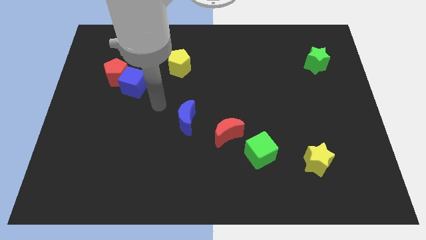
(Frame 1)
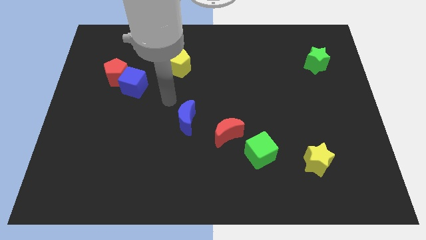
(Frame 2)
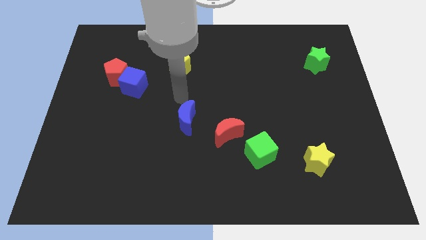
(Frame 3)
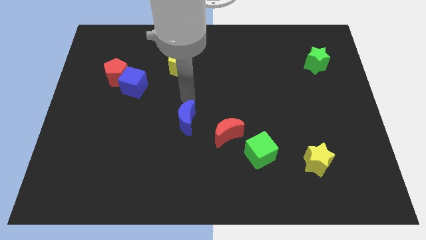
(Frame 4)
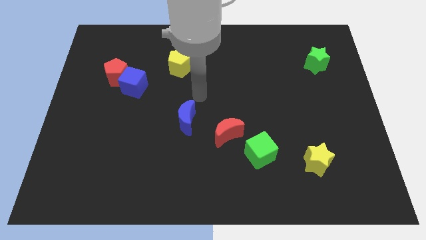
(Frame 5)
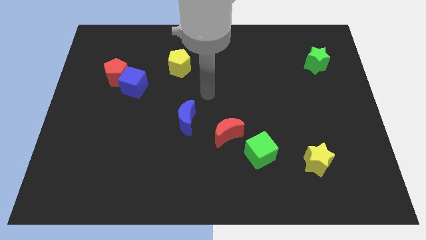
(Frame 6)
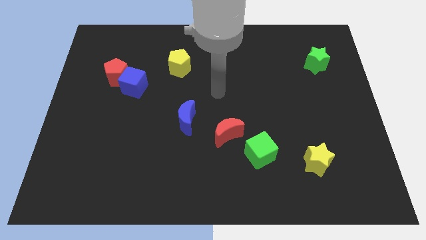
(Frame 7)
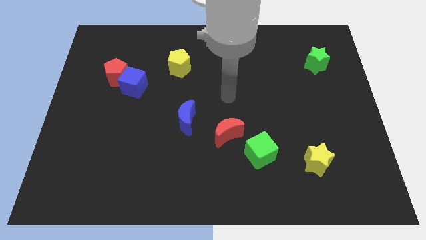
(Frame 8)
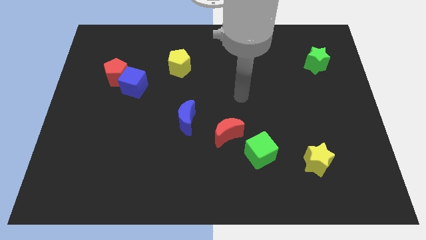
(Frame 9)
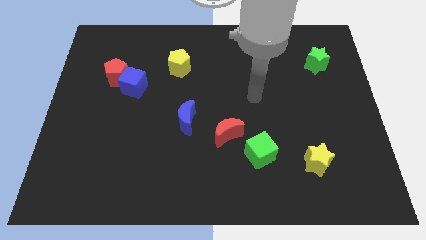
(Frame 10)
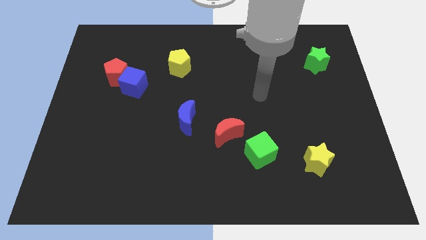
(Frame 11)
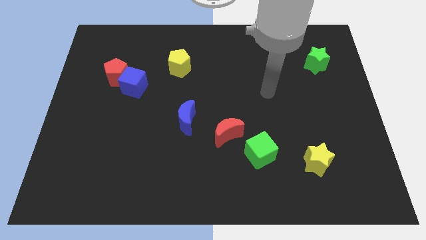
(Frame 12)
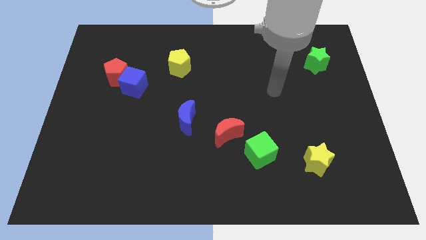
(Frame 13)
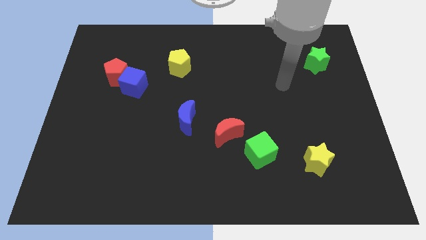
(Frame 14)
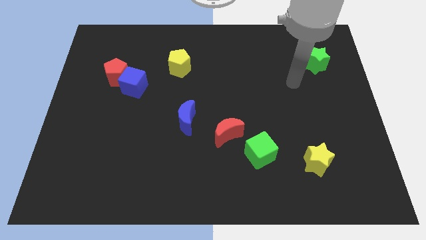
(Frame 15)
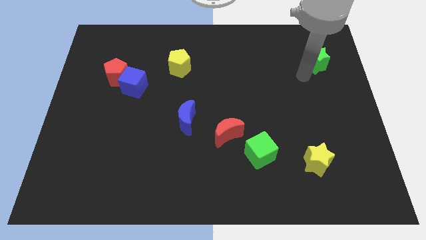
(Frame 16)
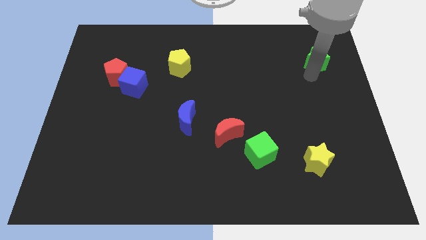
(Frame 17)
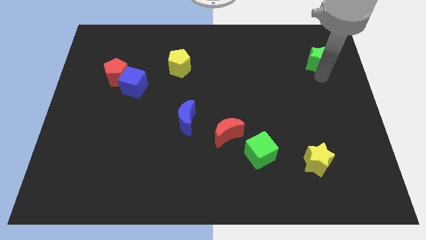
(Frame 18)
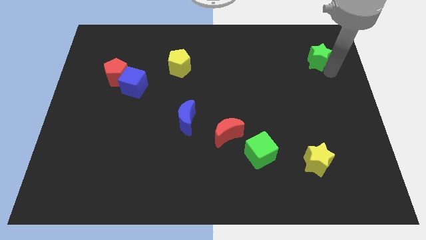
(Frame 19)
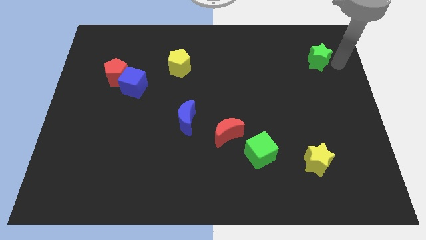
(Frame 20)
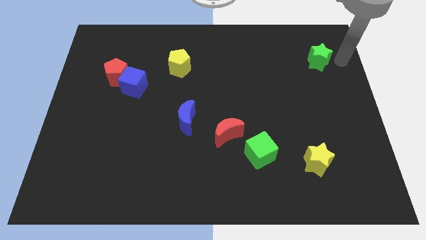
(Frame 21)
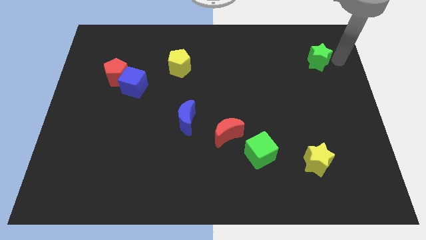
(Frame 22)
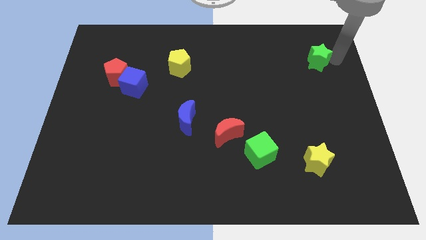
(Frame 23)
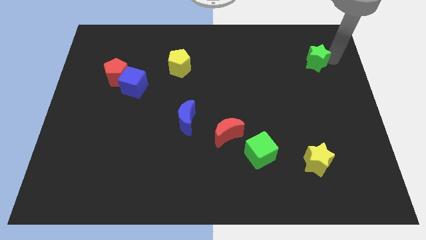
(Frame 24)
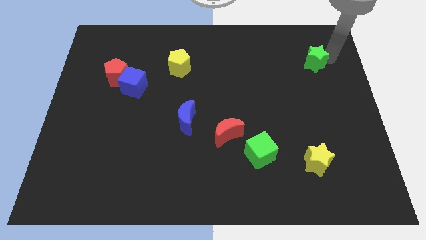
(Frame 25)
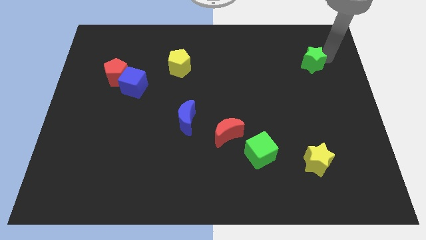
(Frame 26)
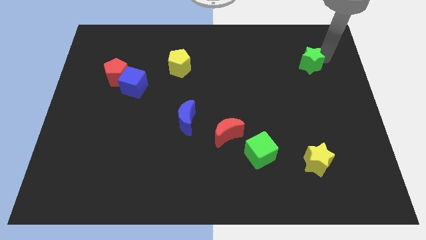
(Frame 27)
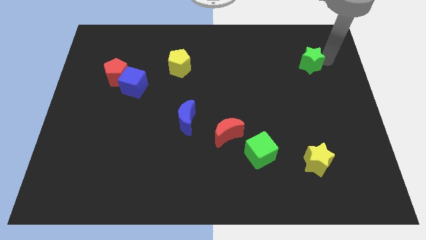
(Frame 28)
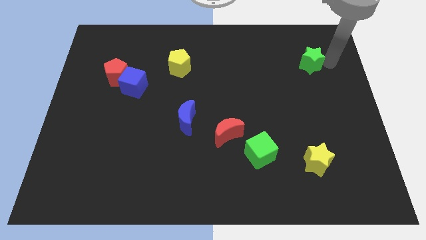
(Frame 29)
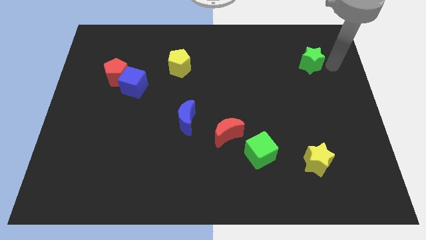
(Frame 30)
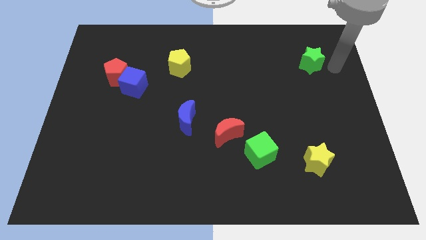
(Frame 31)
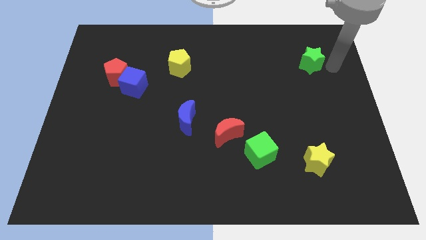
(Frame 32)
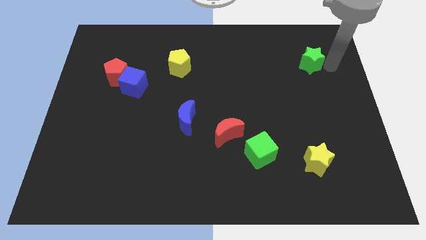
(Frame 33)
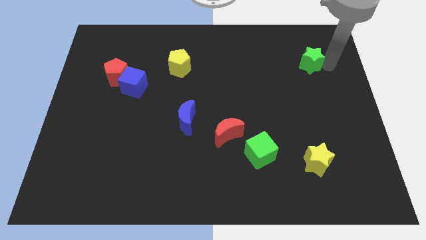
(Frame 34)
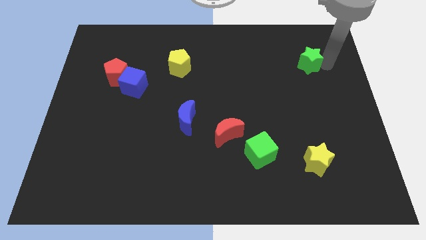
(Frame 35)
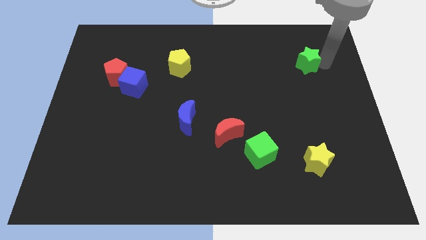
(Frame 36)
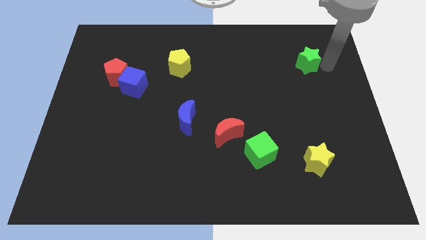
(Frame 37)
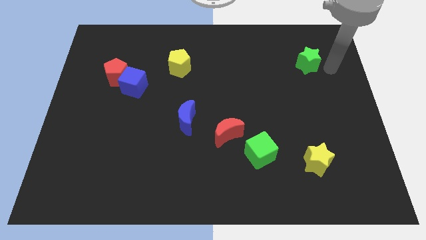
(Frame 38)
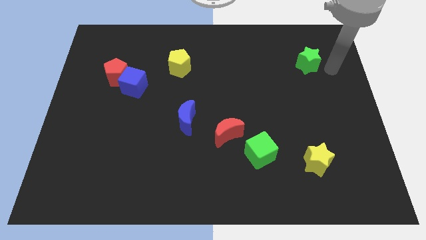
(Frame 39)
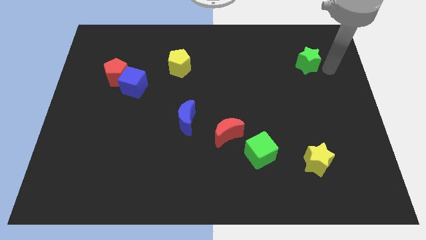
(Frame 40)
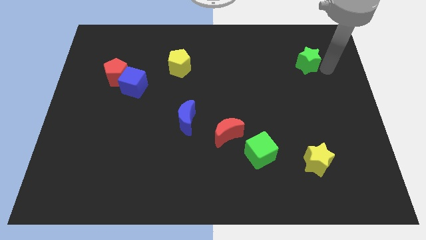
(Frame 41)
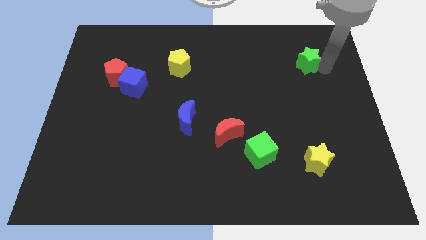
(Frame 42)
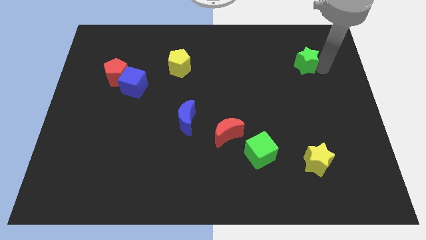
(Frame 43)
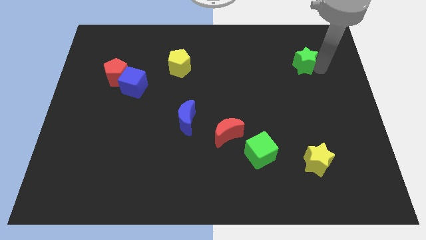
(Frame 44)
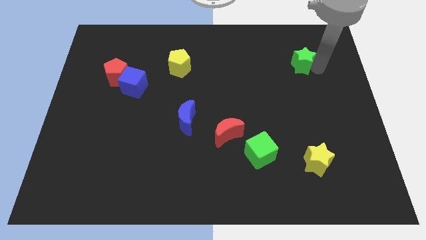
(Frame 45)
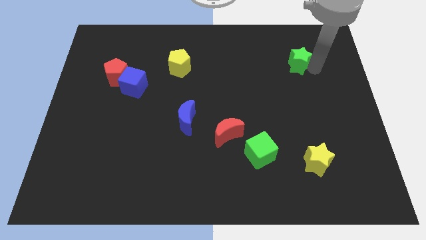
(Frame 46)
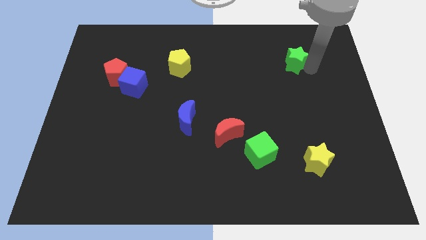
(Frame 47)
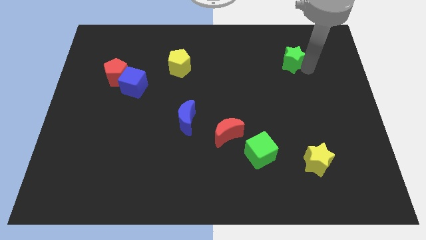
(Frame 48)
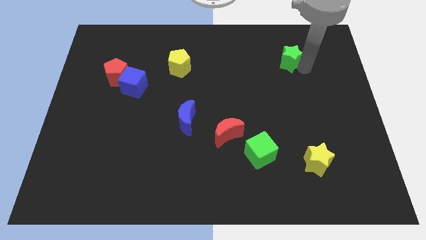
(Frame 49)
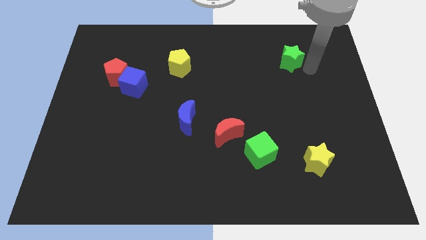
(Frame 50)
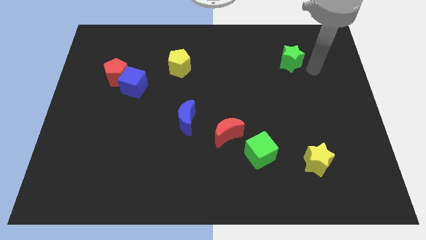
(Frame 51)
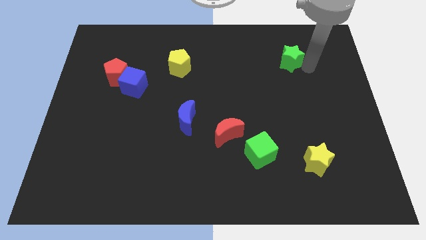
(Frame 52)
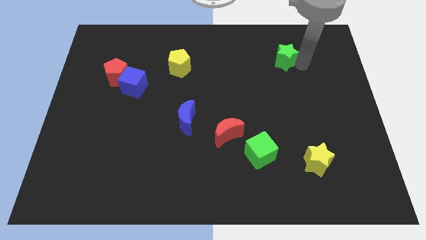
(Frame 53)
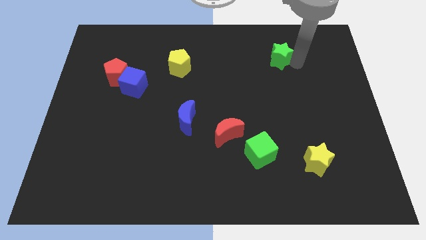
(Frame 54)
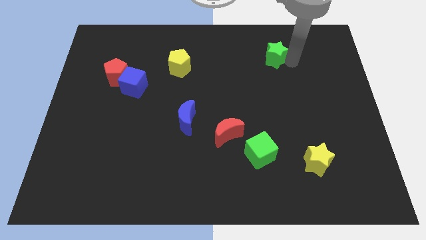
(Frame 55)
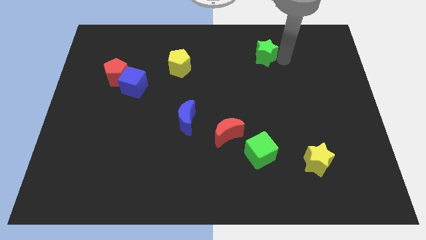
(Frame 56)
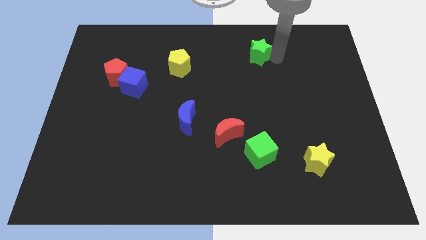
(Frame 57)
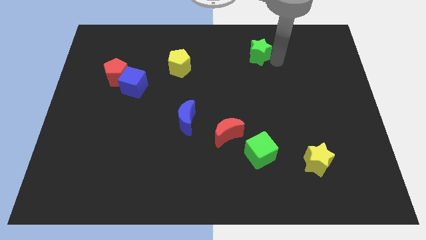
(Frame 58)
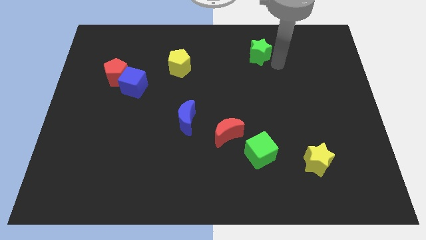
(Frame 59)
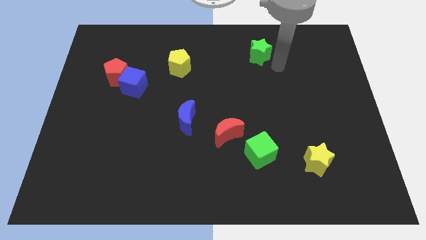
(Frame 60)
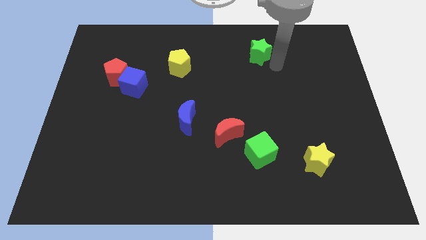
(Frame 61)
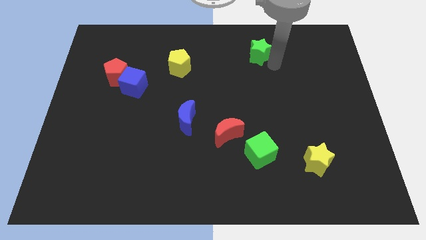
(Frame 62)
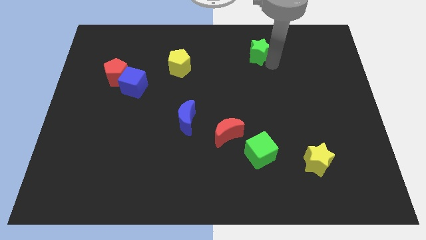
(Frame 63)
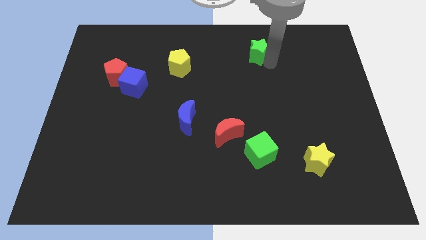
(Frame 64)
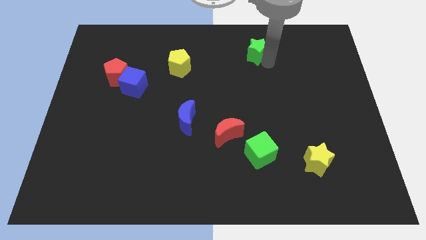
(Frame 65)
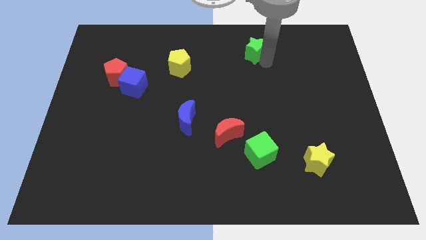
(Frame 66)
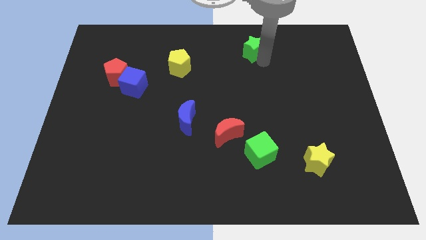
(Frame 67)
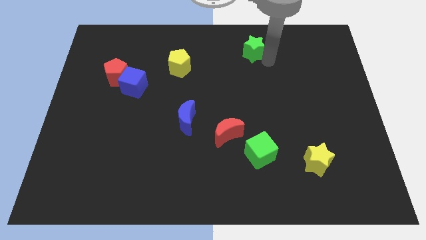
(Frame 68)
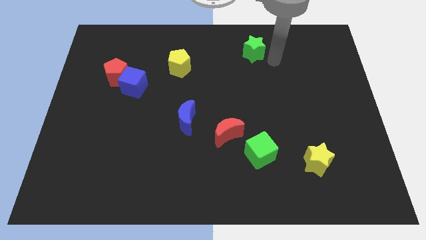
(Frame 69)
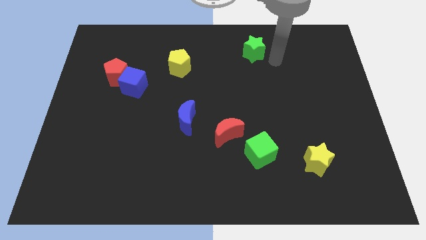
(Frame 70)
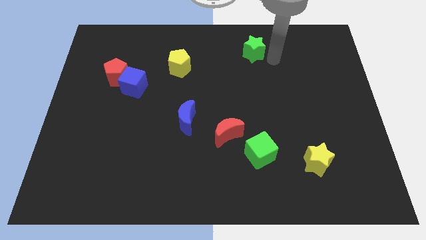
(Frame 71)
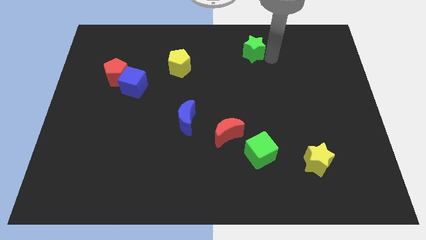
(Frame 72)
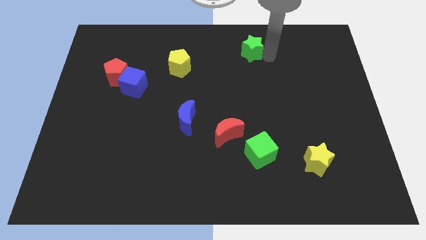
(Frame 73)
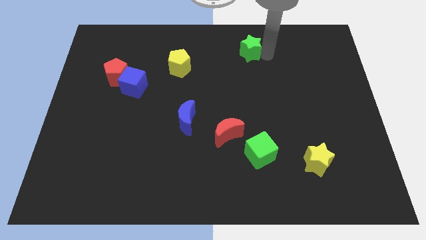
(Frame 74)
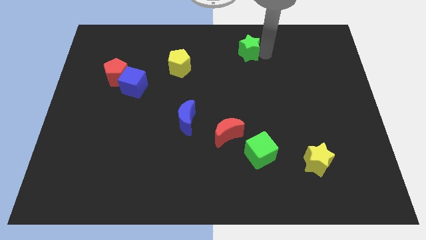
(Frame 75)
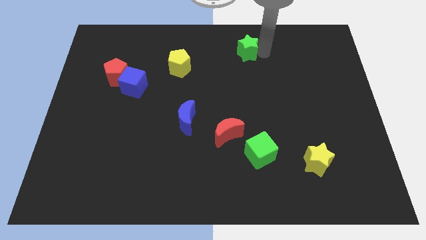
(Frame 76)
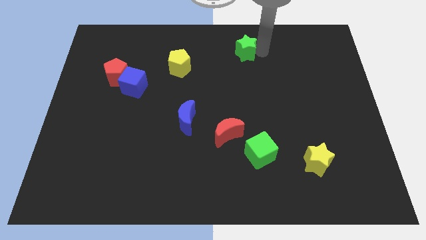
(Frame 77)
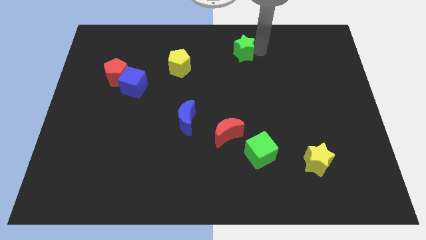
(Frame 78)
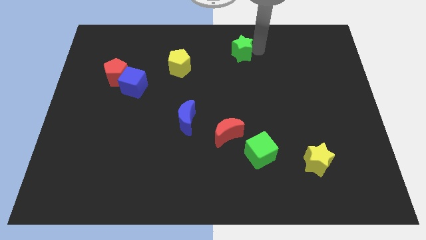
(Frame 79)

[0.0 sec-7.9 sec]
move the green star to the top
